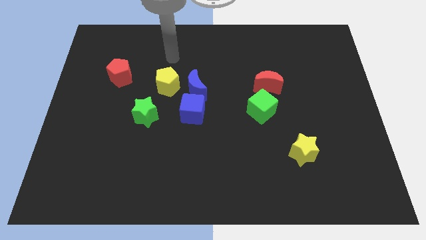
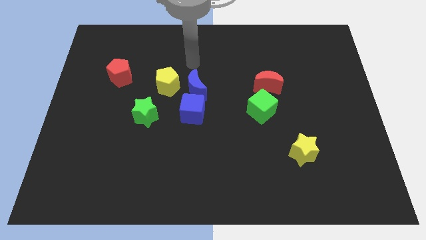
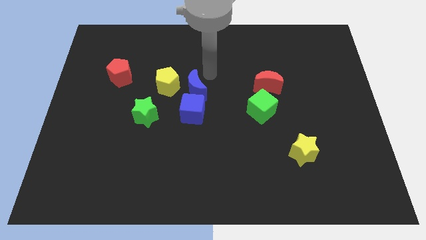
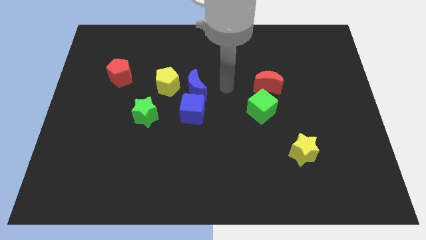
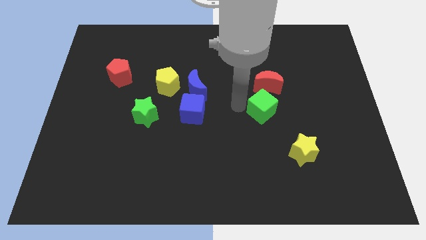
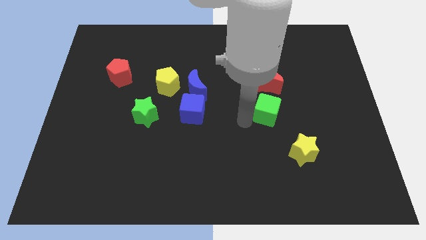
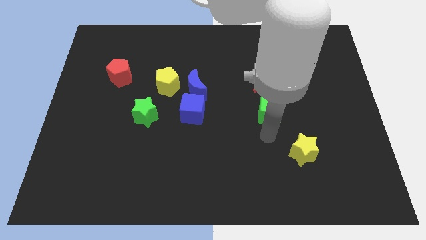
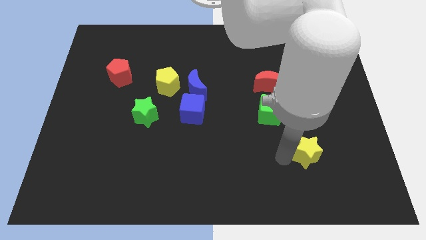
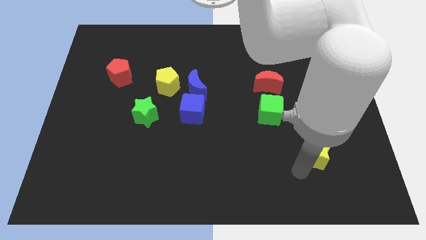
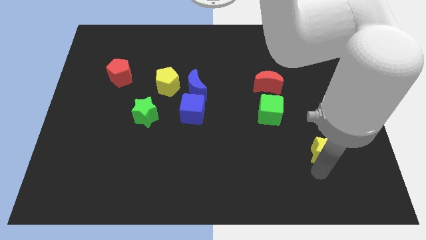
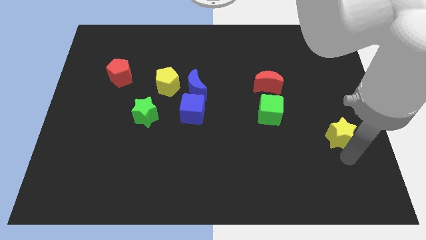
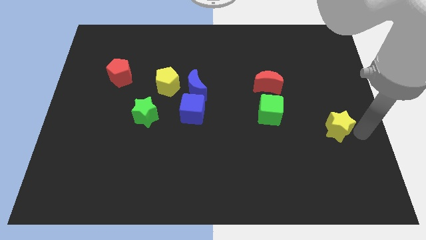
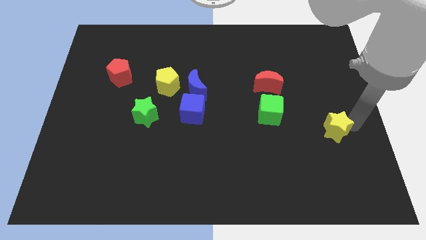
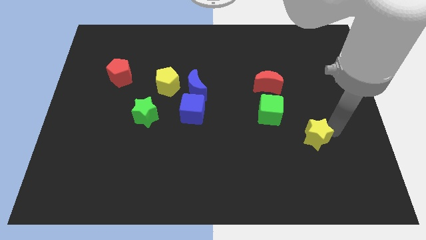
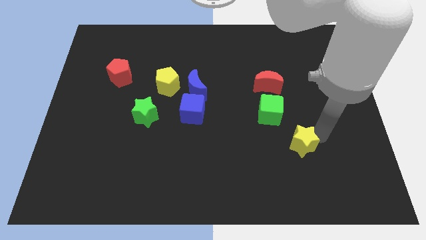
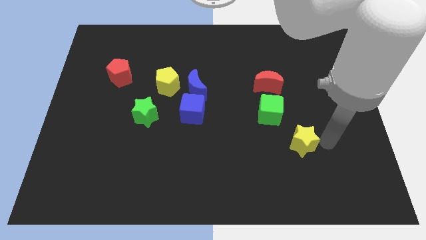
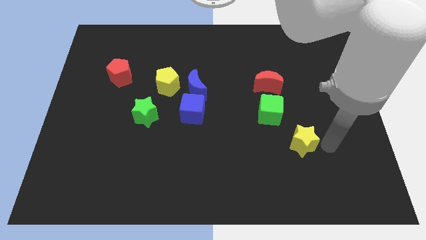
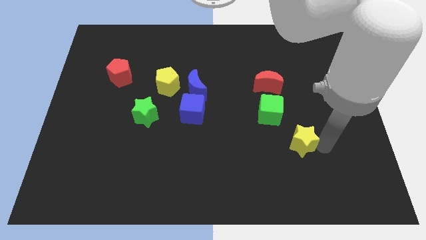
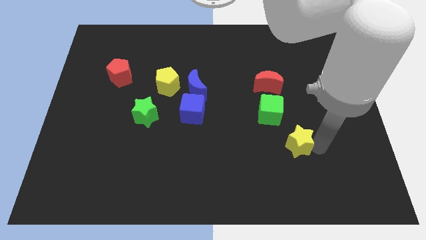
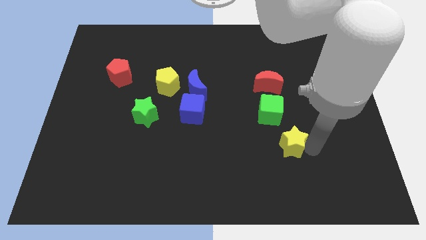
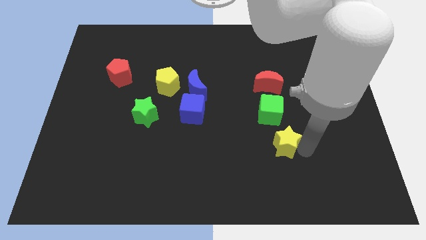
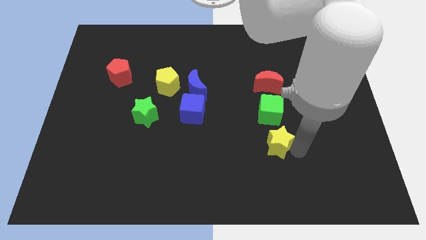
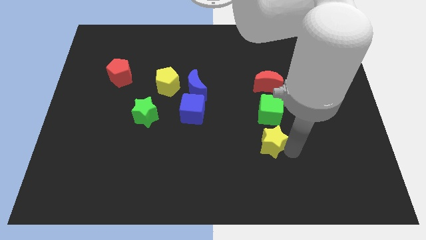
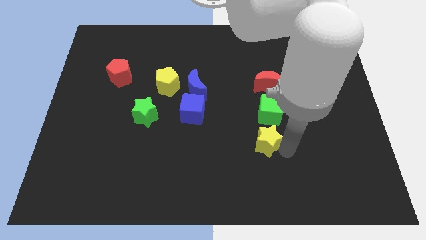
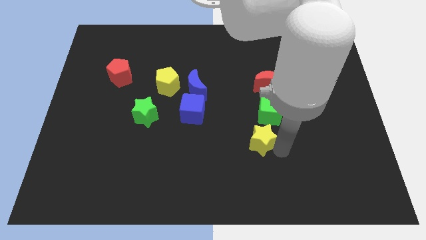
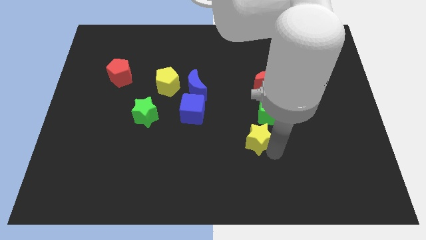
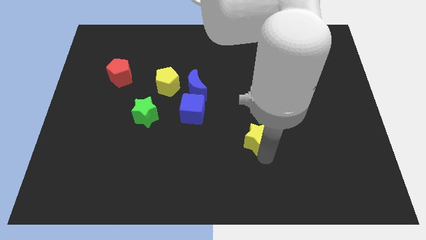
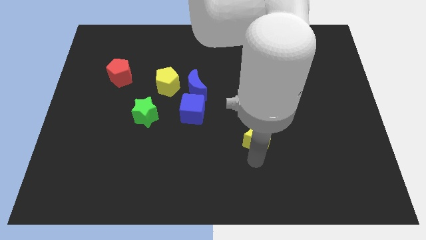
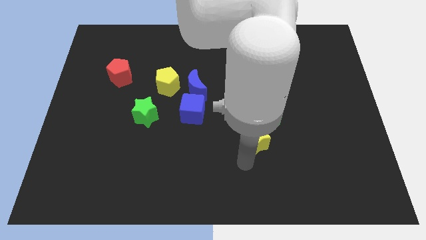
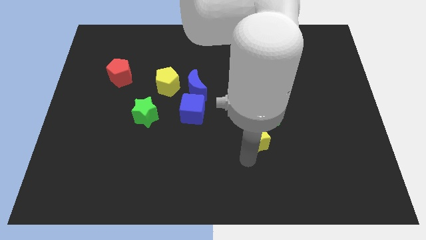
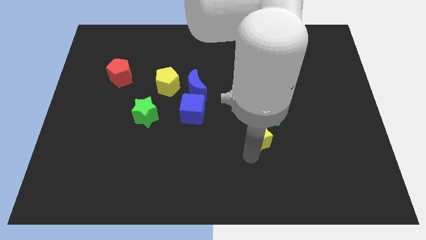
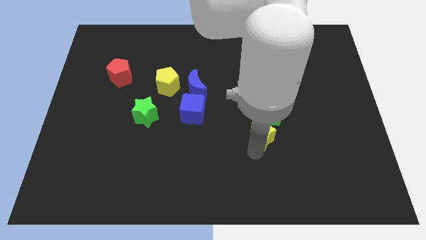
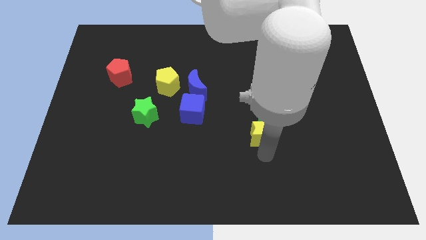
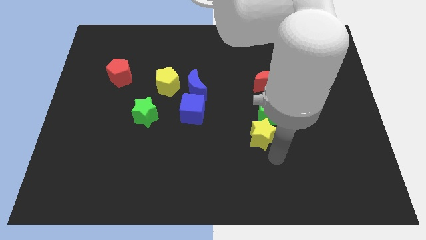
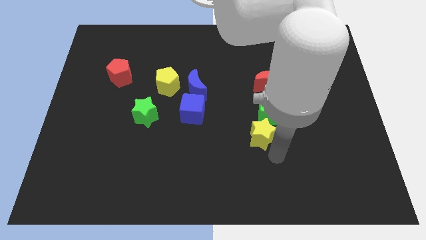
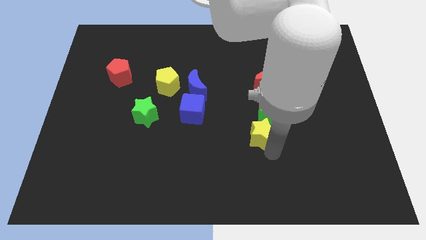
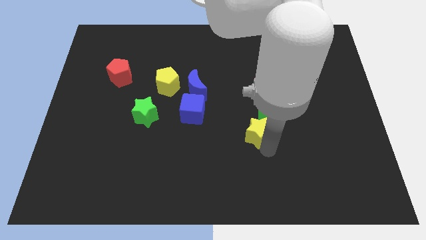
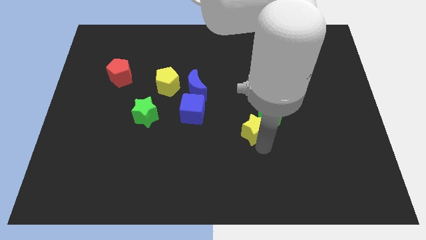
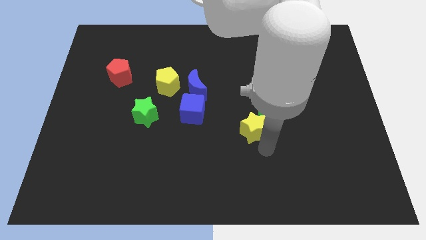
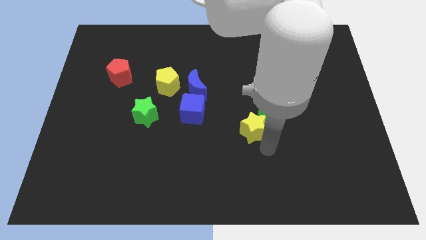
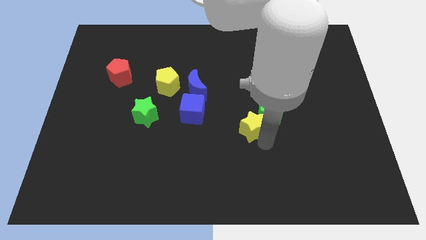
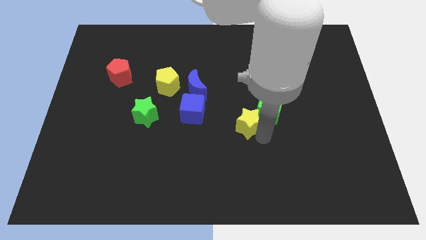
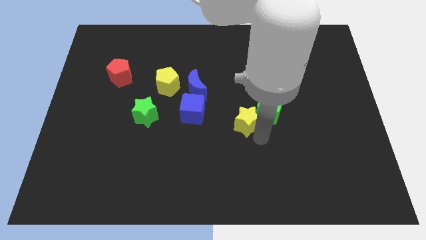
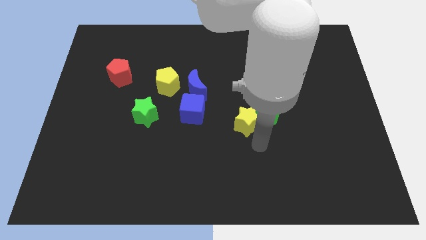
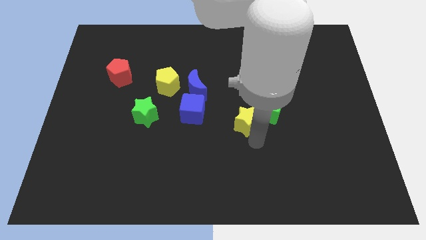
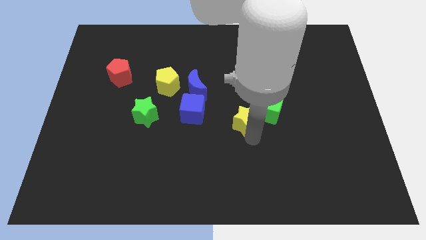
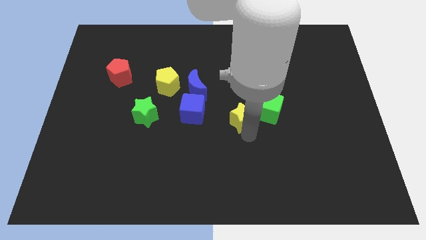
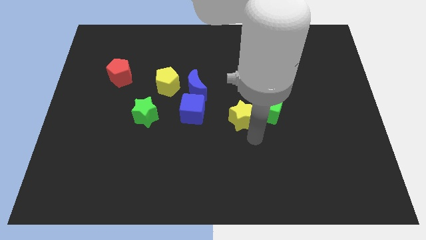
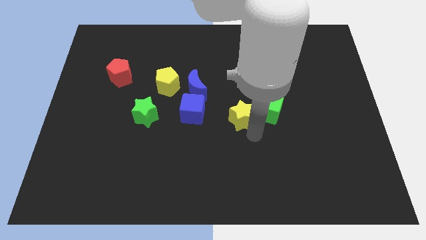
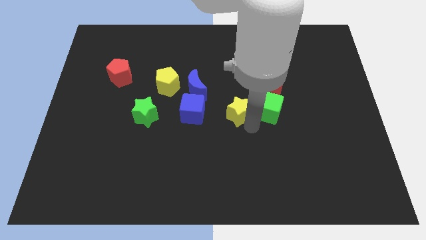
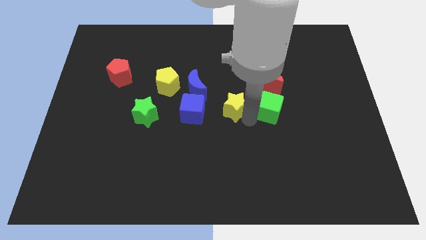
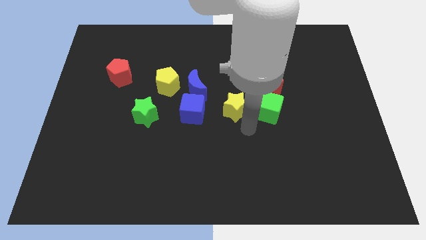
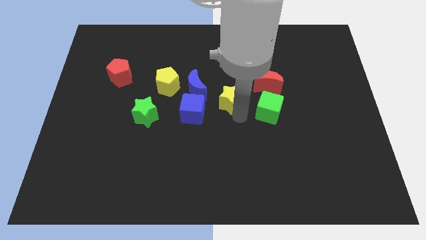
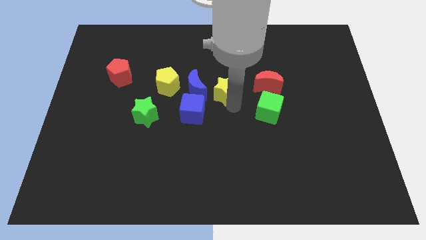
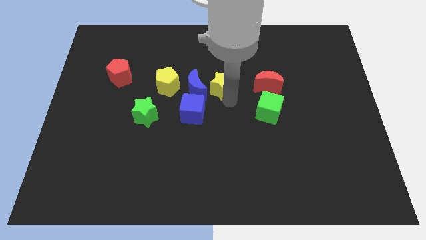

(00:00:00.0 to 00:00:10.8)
push the yellow star diagonally up and to the right of the blue moon
